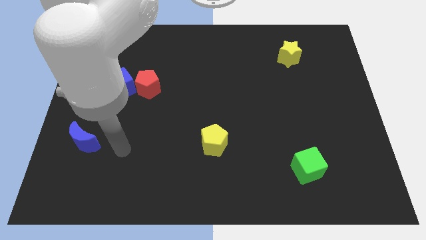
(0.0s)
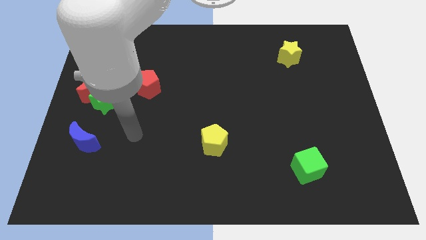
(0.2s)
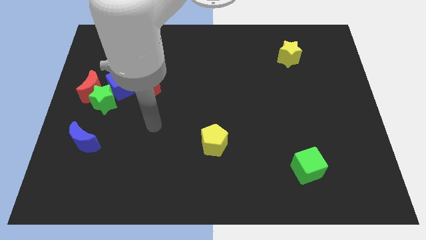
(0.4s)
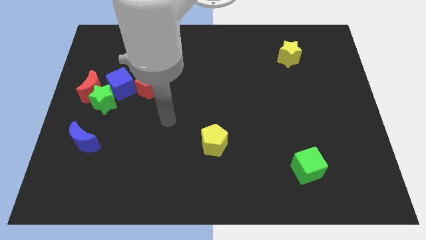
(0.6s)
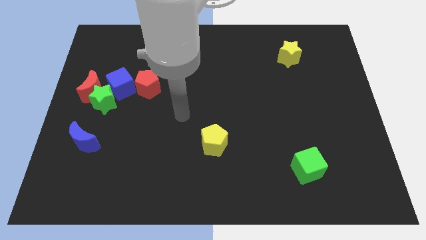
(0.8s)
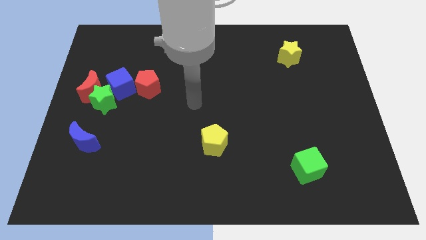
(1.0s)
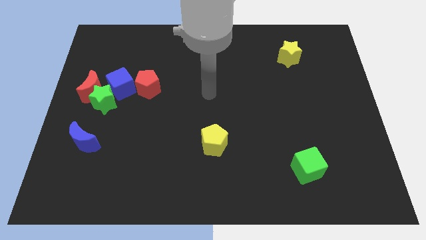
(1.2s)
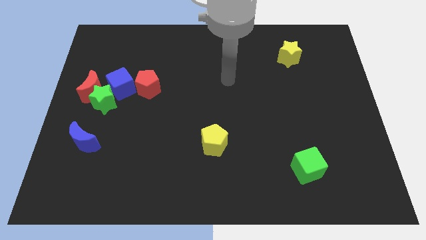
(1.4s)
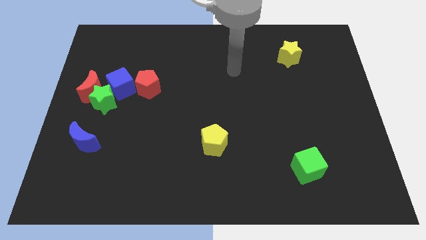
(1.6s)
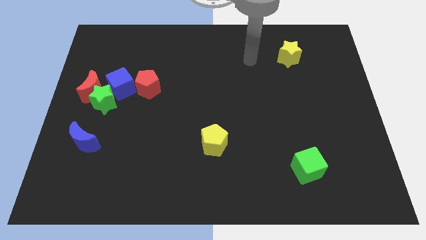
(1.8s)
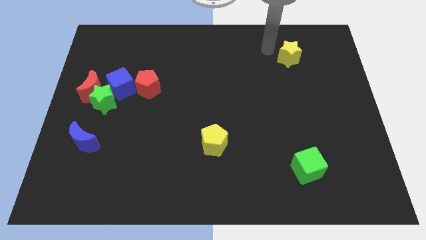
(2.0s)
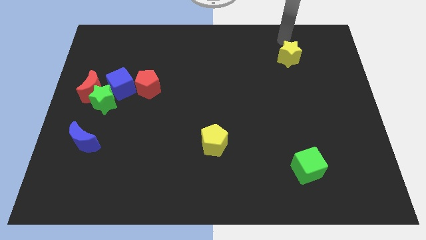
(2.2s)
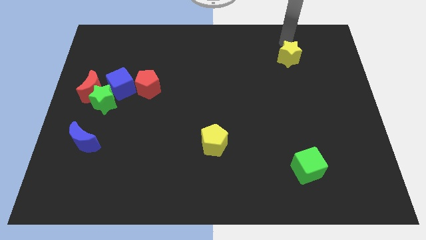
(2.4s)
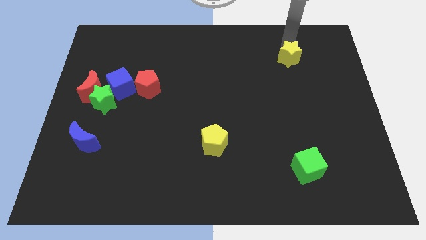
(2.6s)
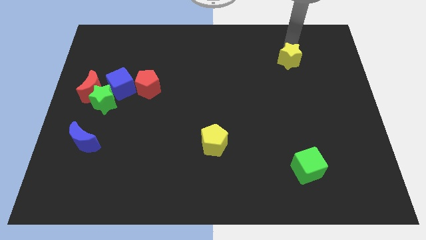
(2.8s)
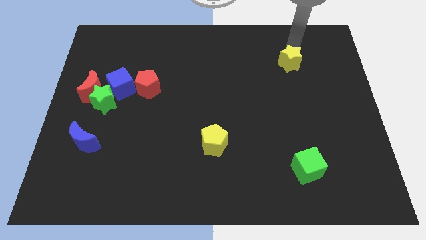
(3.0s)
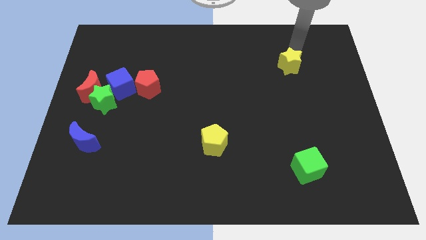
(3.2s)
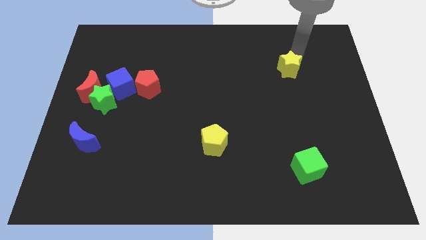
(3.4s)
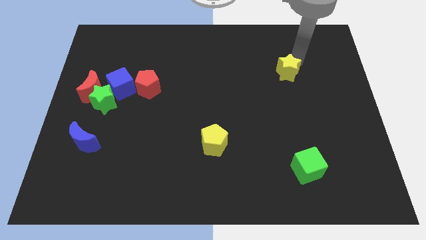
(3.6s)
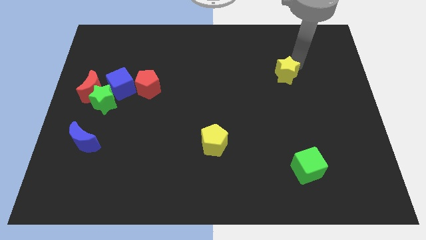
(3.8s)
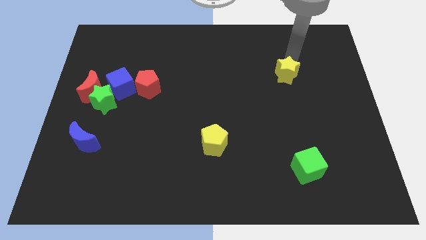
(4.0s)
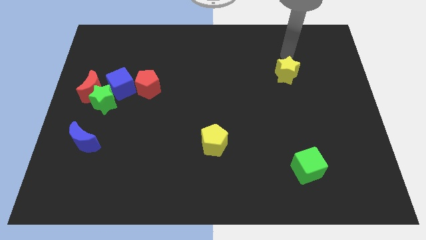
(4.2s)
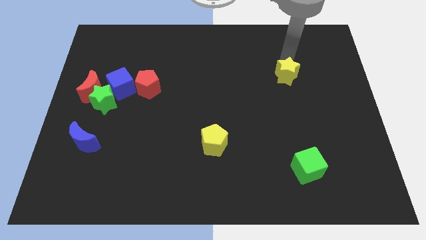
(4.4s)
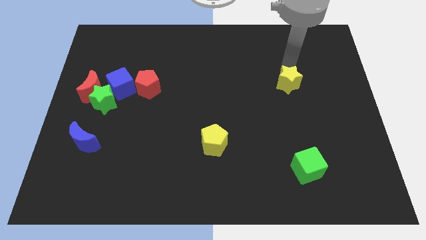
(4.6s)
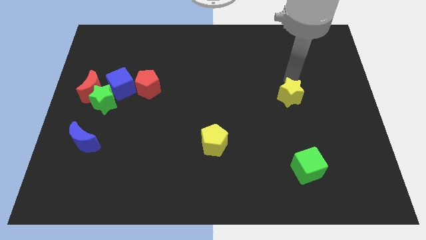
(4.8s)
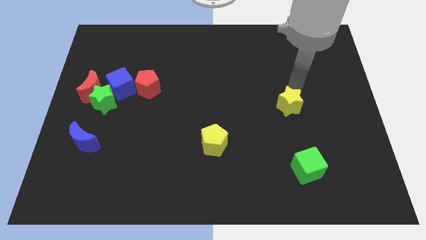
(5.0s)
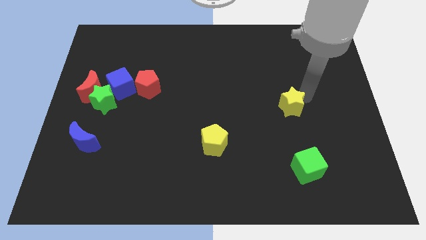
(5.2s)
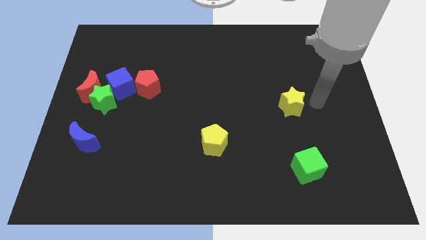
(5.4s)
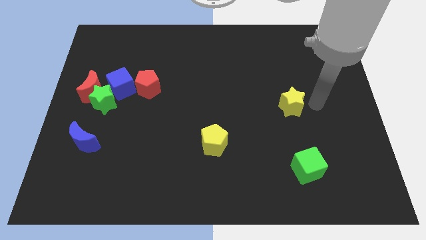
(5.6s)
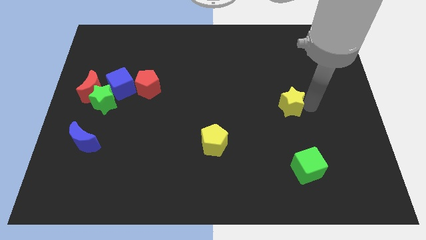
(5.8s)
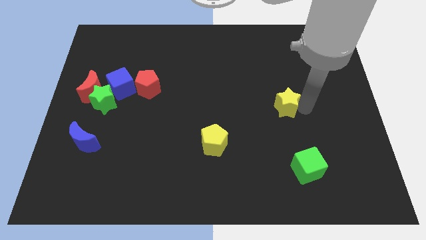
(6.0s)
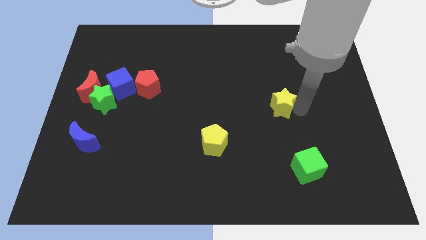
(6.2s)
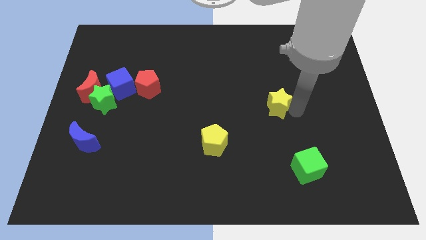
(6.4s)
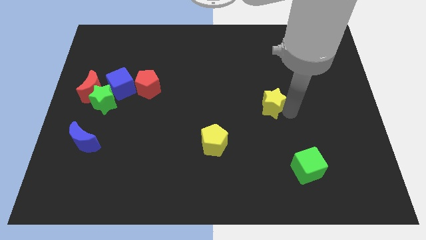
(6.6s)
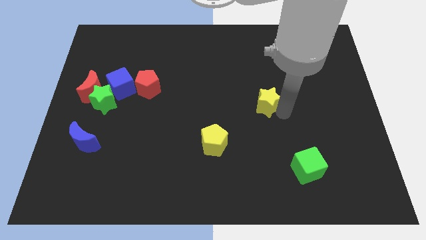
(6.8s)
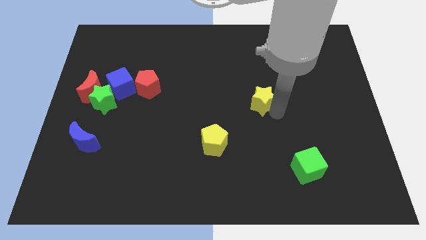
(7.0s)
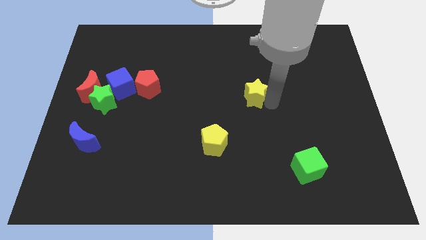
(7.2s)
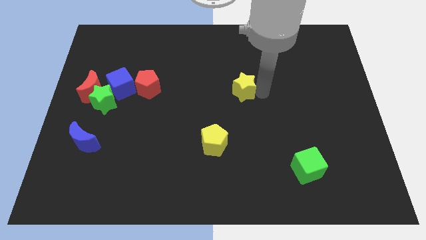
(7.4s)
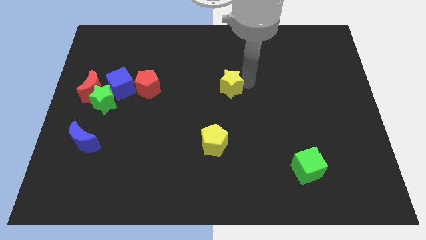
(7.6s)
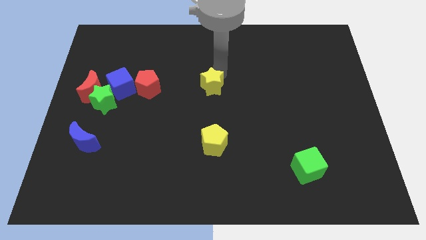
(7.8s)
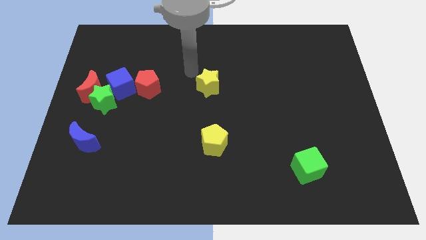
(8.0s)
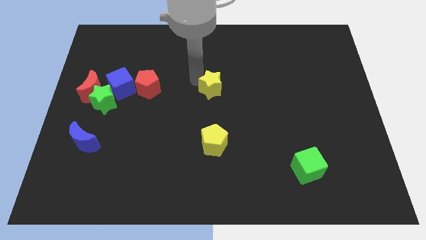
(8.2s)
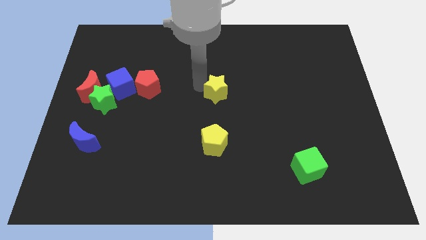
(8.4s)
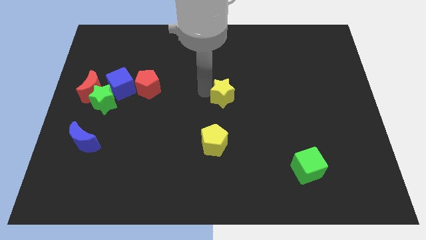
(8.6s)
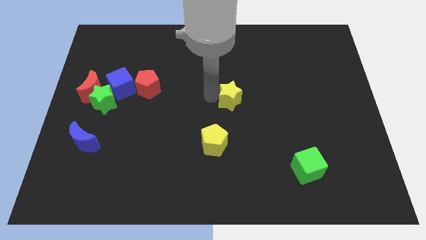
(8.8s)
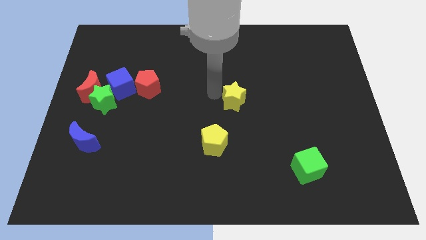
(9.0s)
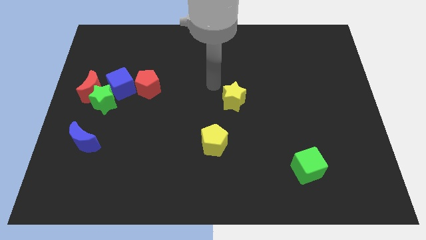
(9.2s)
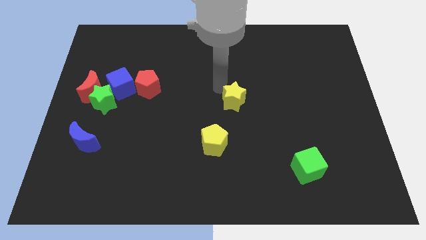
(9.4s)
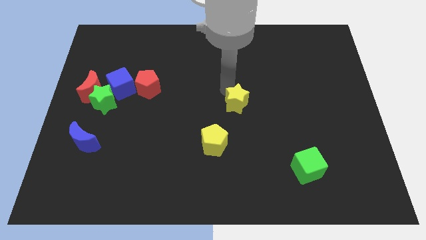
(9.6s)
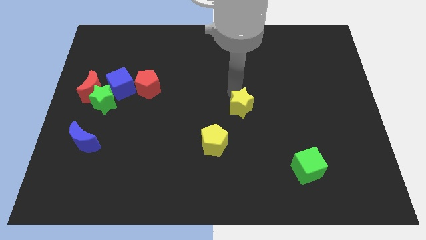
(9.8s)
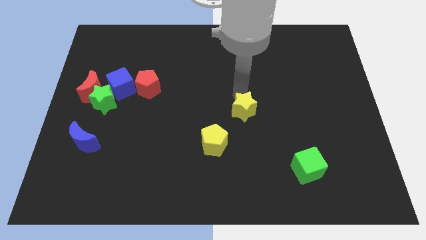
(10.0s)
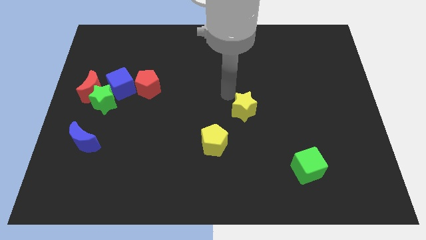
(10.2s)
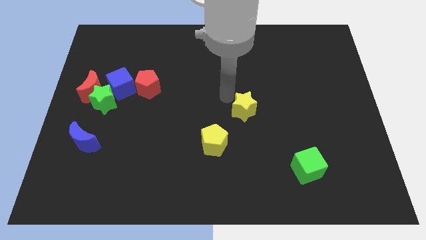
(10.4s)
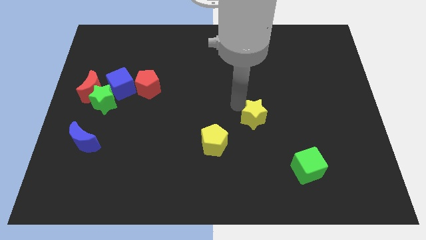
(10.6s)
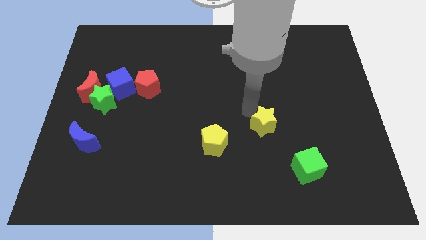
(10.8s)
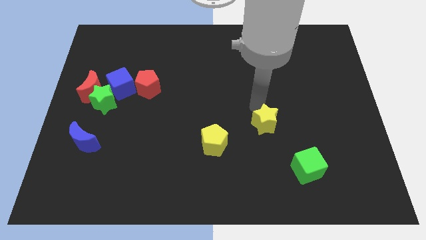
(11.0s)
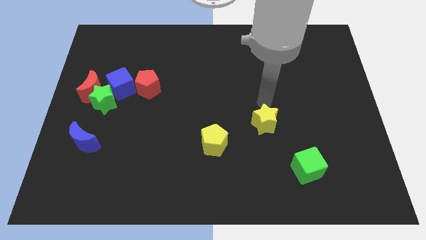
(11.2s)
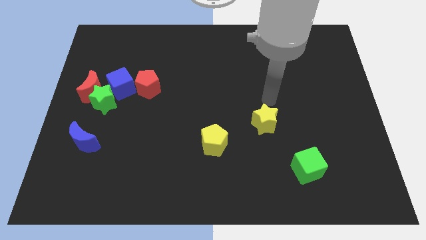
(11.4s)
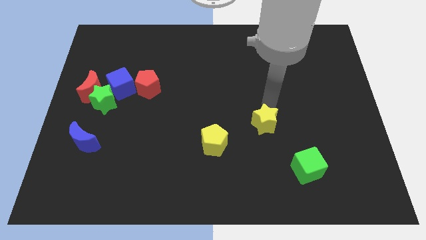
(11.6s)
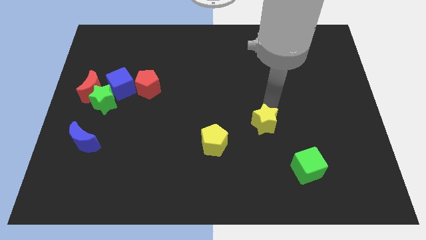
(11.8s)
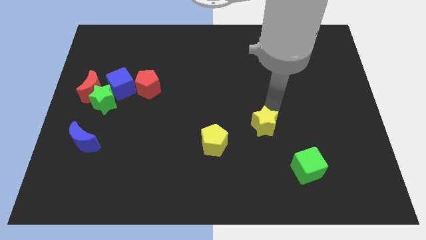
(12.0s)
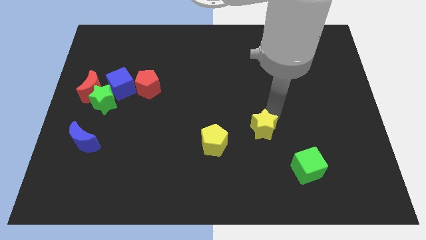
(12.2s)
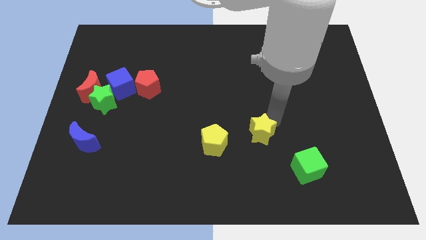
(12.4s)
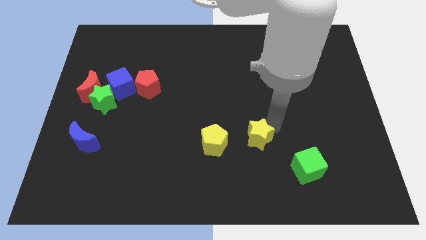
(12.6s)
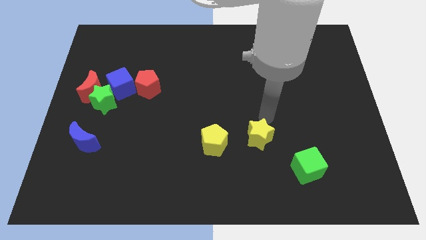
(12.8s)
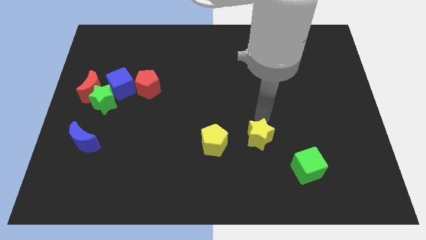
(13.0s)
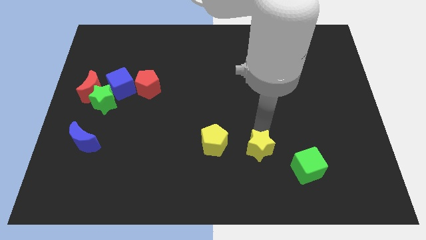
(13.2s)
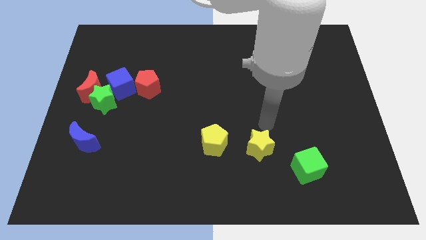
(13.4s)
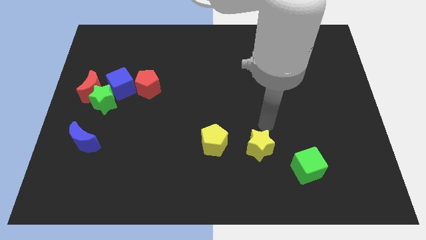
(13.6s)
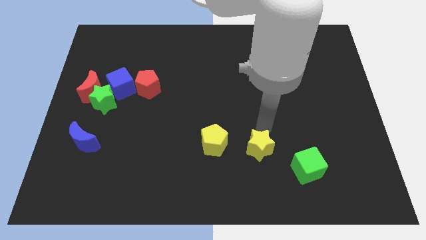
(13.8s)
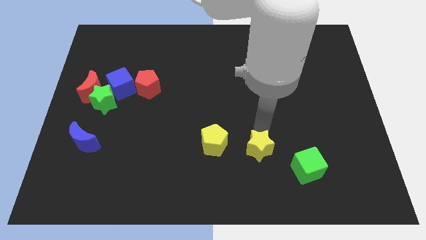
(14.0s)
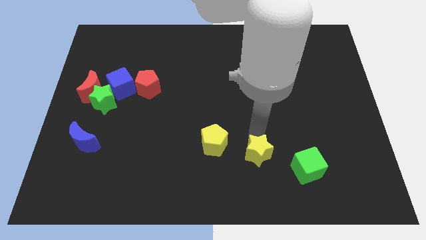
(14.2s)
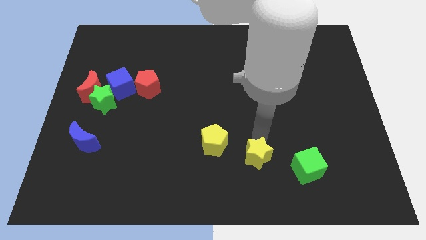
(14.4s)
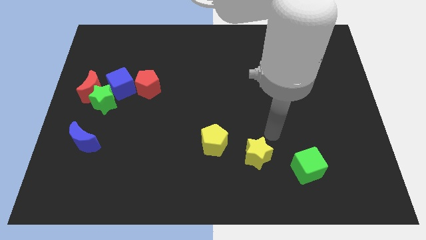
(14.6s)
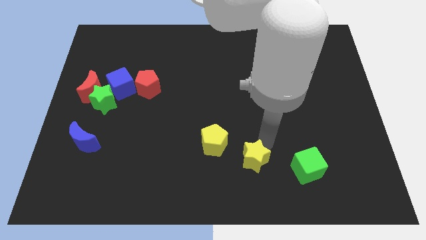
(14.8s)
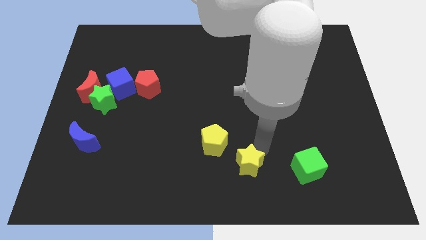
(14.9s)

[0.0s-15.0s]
put the yellow star to the bottom side
